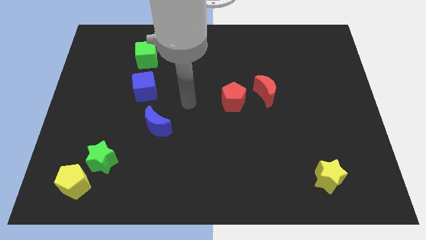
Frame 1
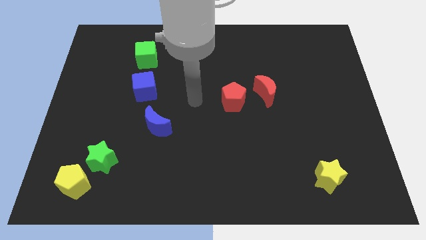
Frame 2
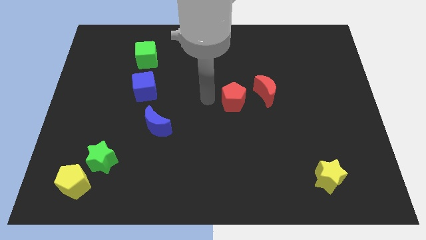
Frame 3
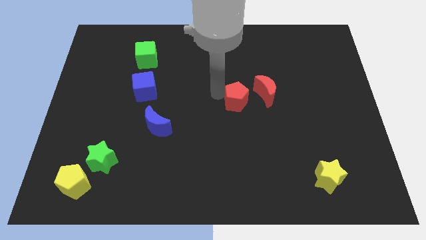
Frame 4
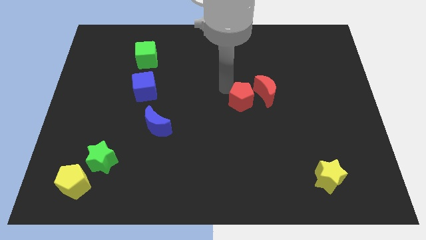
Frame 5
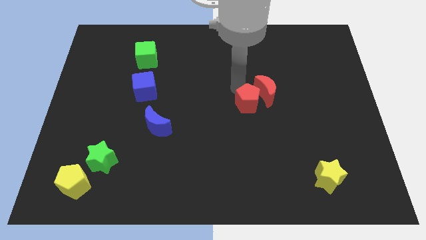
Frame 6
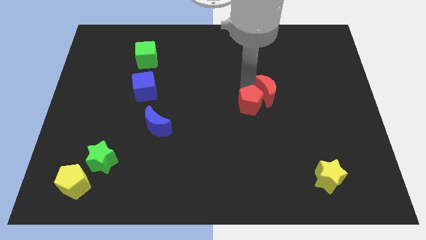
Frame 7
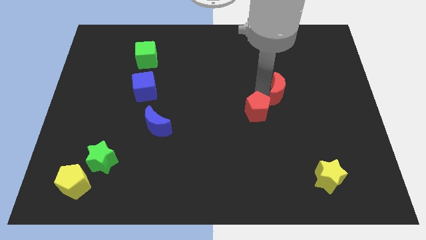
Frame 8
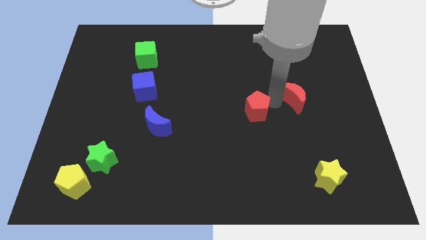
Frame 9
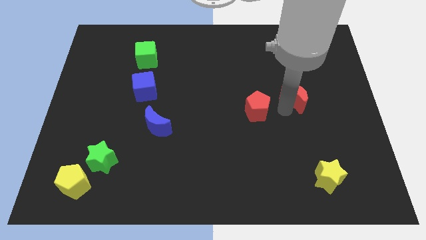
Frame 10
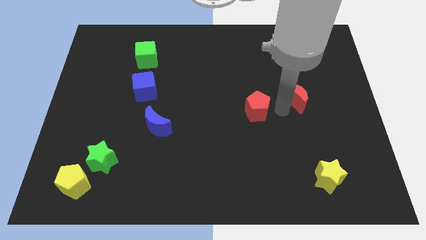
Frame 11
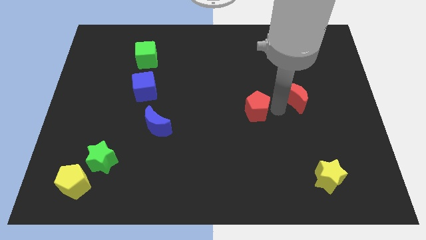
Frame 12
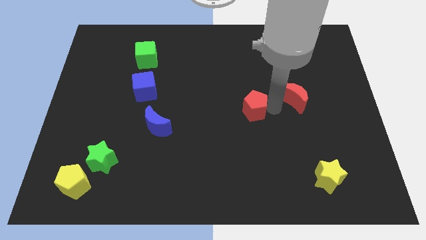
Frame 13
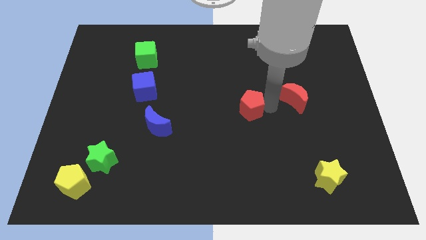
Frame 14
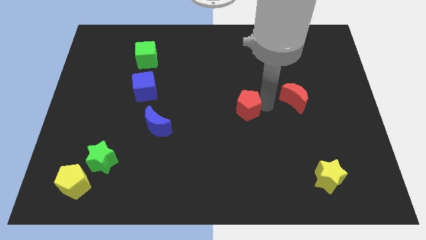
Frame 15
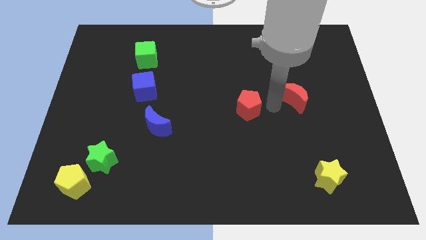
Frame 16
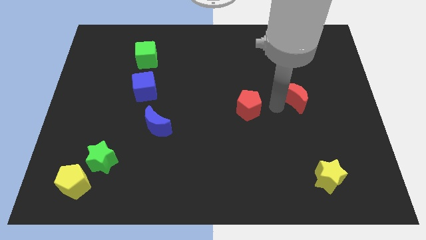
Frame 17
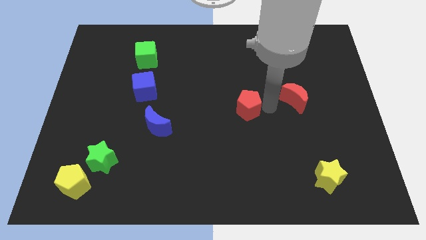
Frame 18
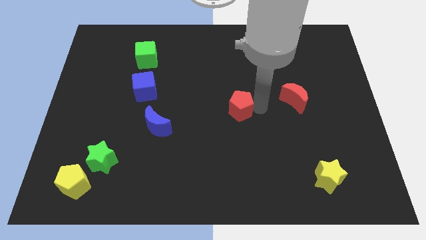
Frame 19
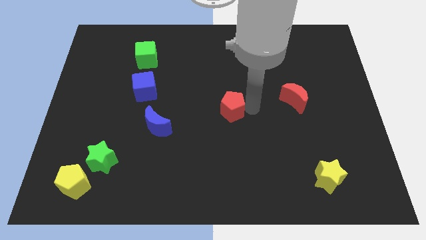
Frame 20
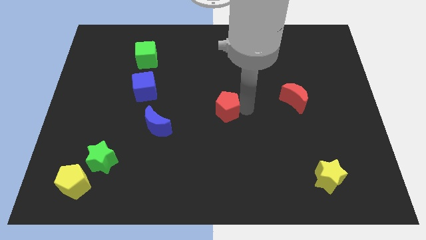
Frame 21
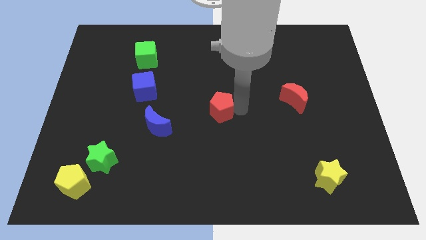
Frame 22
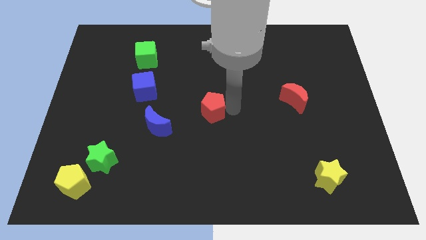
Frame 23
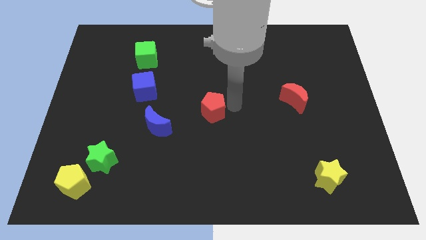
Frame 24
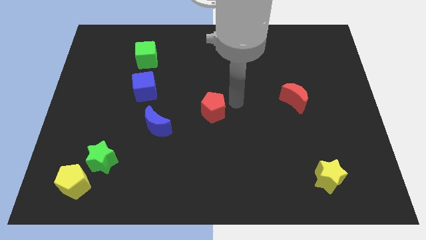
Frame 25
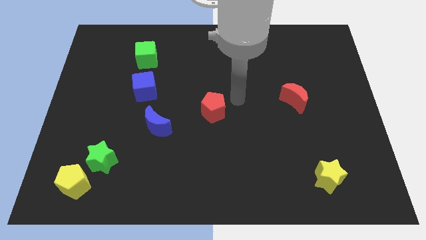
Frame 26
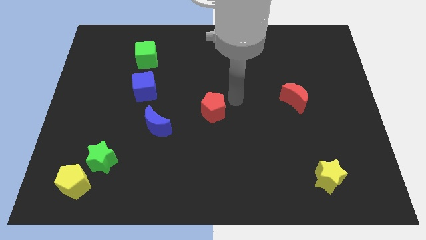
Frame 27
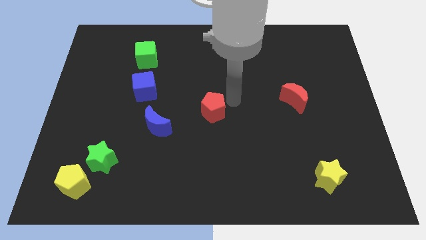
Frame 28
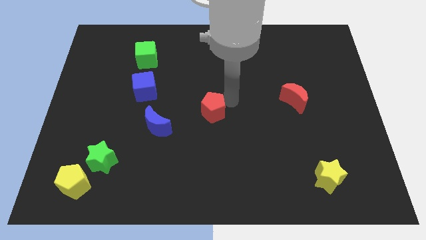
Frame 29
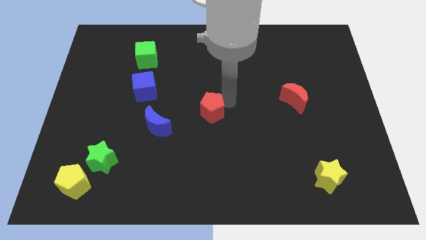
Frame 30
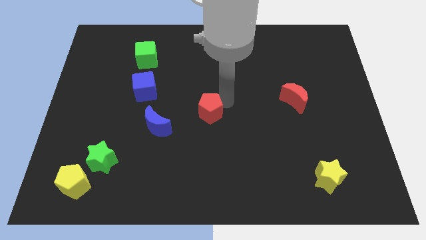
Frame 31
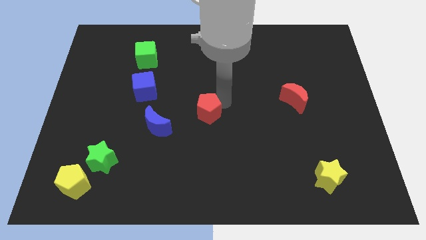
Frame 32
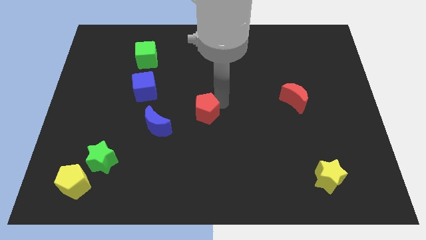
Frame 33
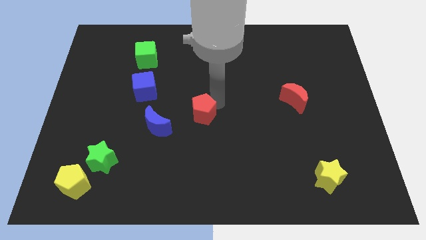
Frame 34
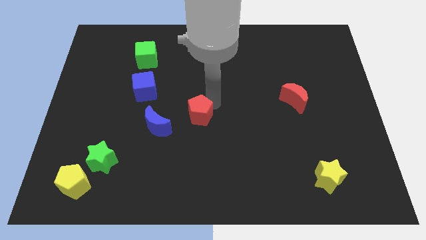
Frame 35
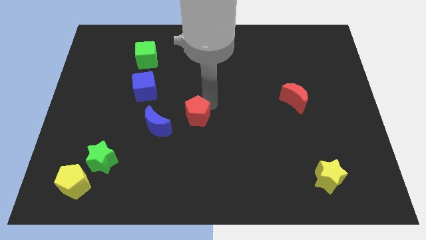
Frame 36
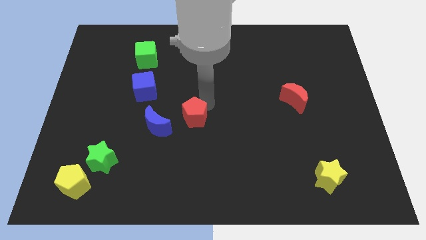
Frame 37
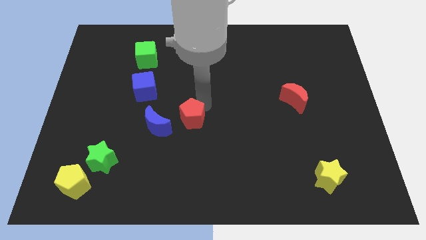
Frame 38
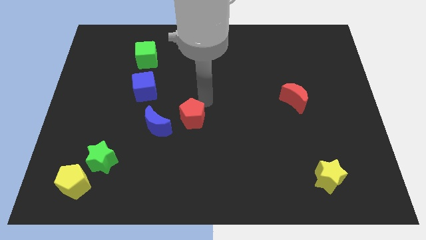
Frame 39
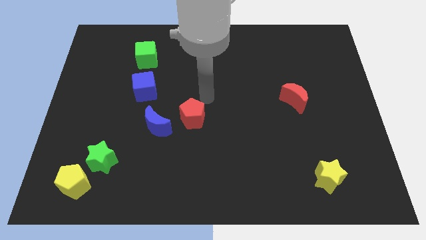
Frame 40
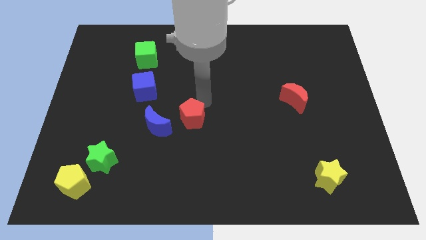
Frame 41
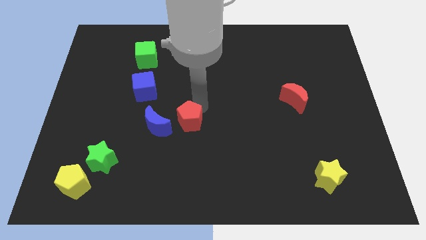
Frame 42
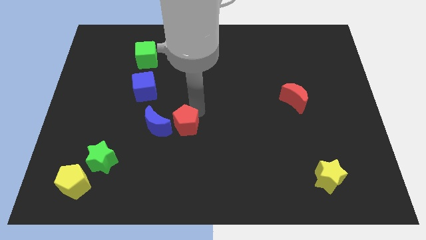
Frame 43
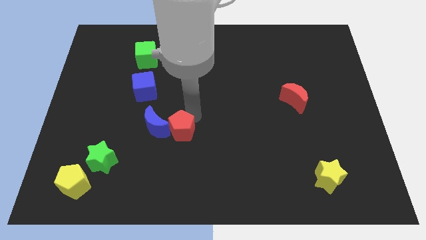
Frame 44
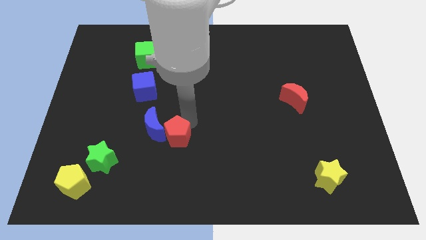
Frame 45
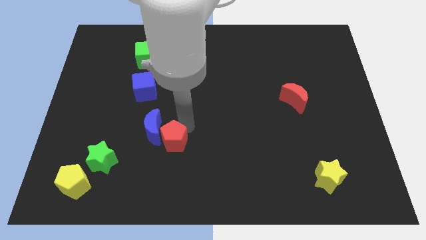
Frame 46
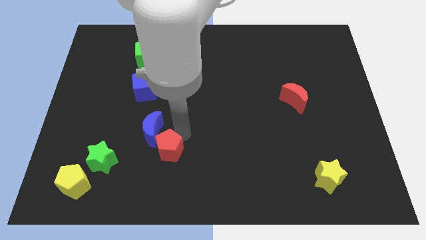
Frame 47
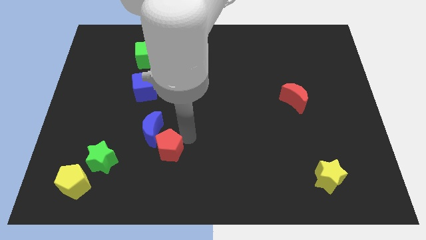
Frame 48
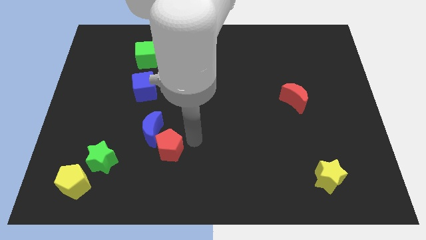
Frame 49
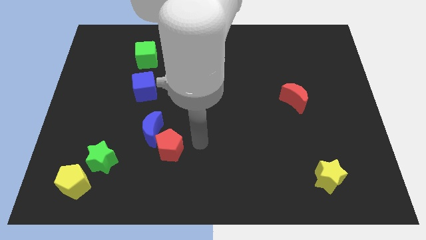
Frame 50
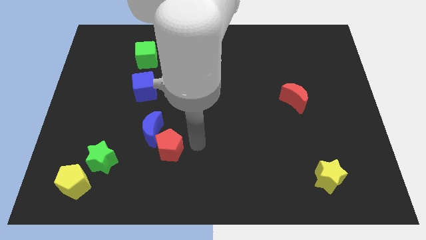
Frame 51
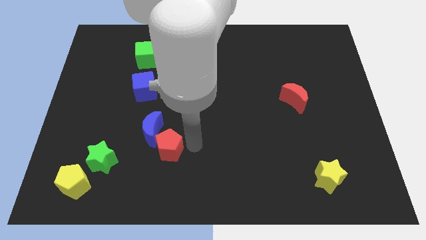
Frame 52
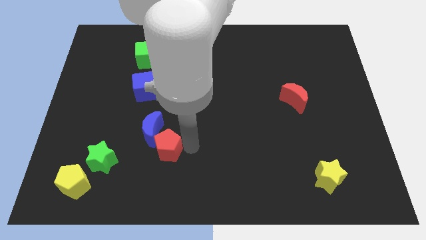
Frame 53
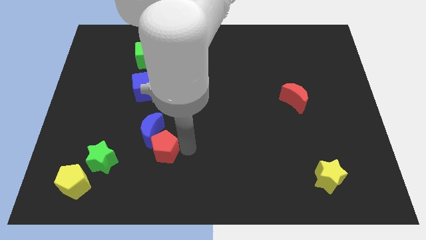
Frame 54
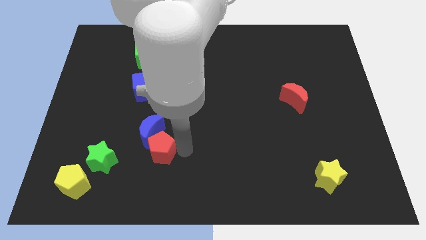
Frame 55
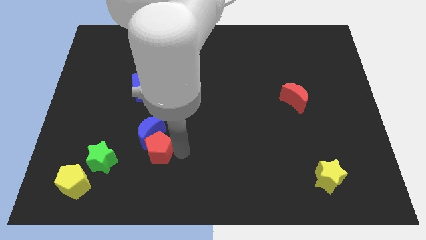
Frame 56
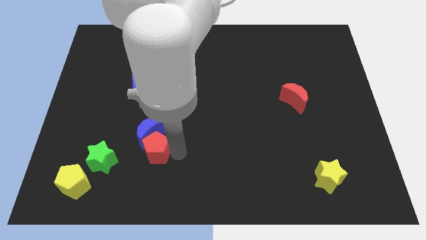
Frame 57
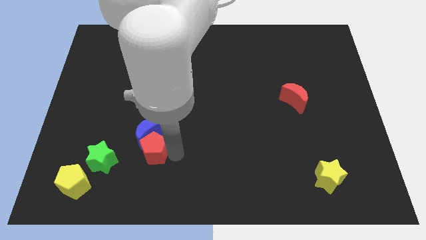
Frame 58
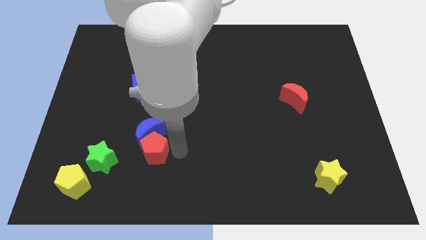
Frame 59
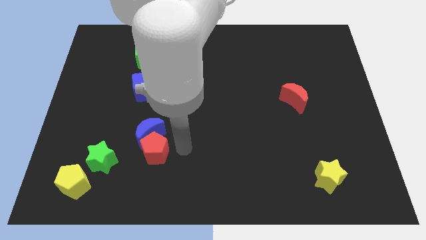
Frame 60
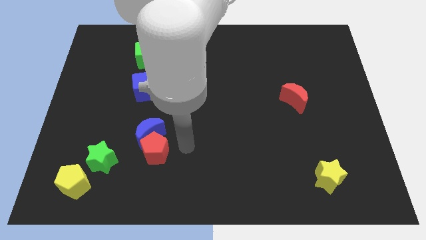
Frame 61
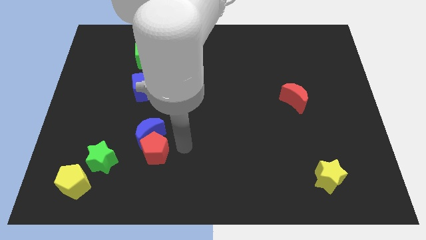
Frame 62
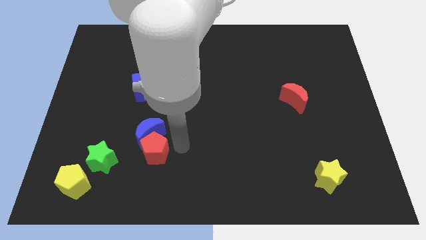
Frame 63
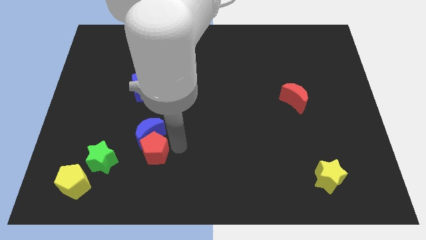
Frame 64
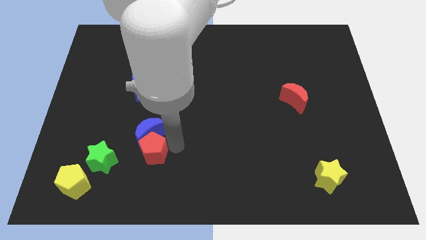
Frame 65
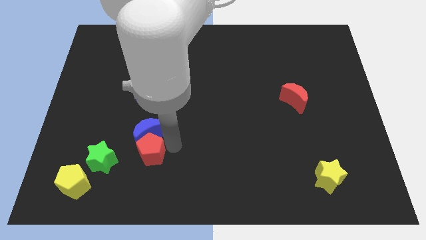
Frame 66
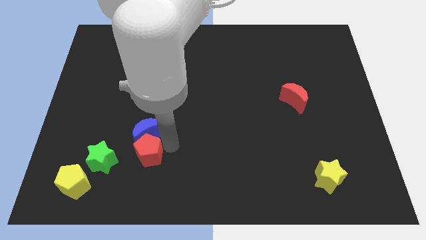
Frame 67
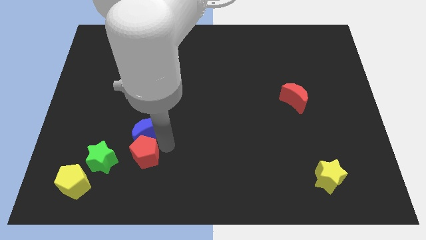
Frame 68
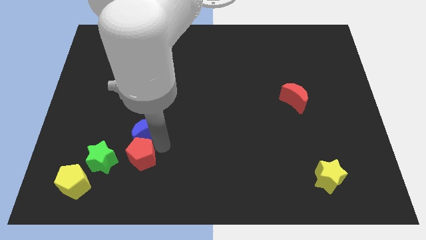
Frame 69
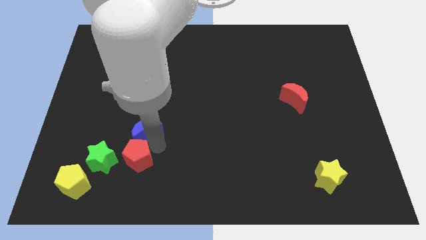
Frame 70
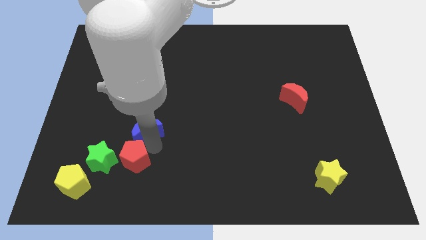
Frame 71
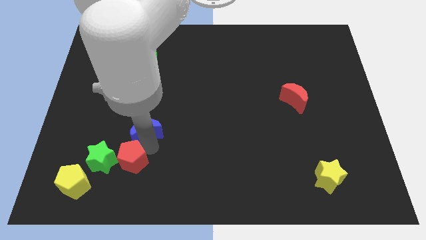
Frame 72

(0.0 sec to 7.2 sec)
push the red pentagon to the green star
